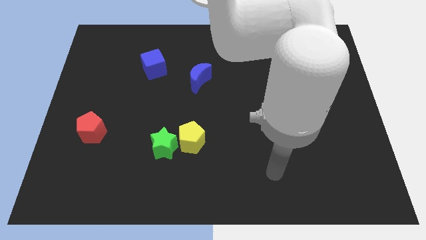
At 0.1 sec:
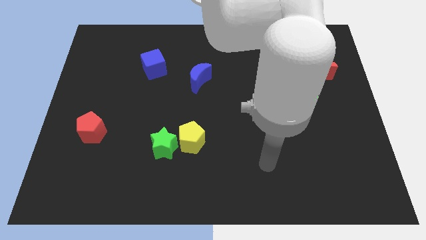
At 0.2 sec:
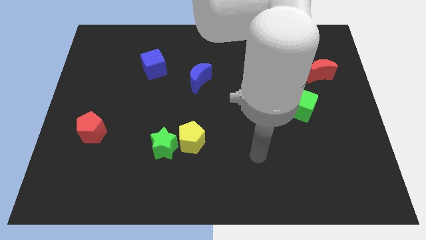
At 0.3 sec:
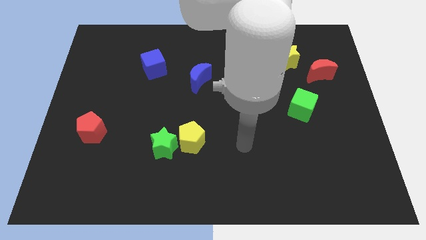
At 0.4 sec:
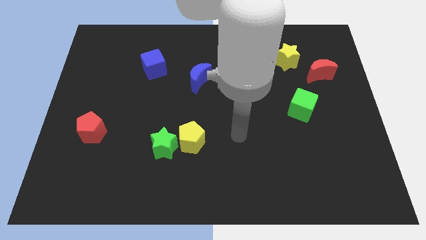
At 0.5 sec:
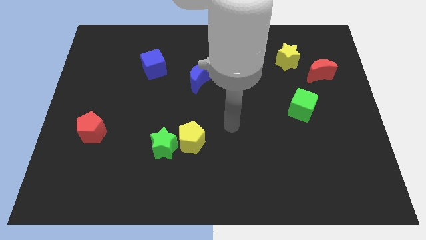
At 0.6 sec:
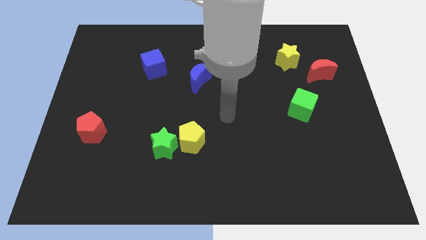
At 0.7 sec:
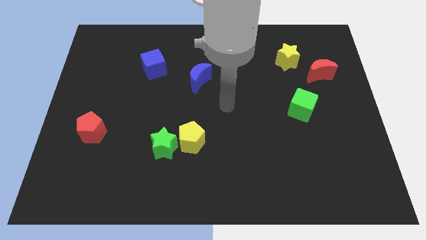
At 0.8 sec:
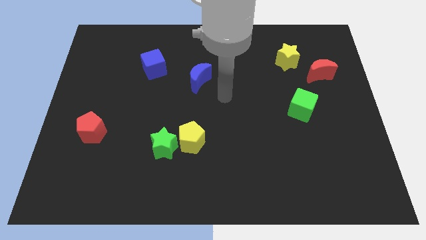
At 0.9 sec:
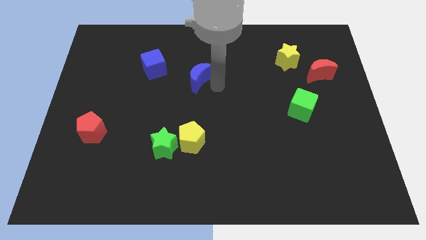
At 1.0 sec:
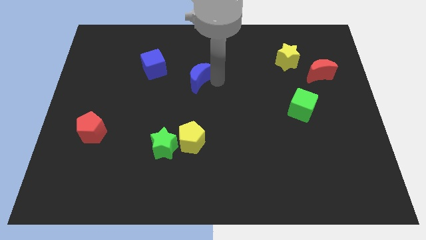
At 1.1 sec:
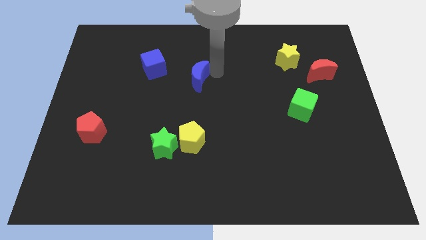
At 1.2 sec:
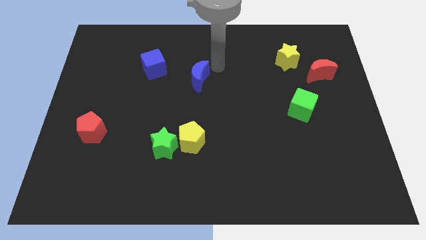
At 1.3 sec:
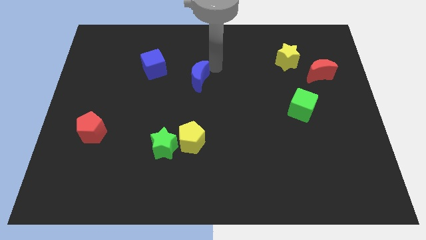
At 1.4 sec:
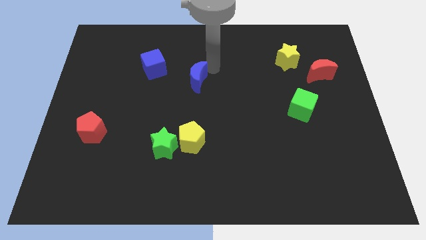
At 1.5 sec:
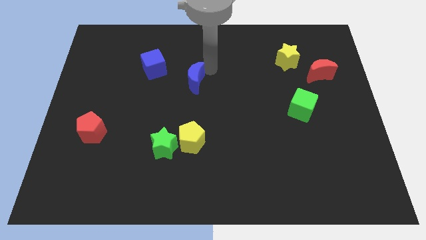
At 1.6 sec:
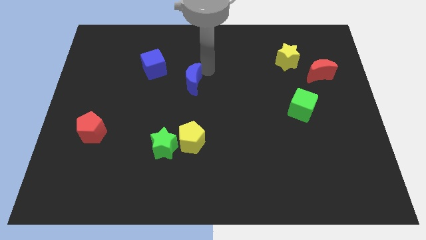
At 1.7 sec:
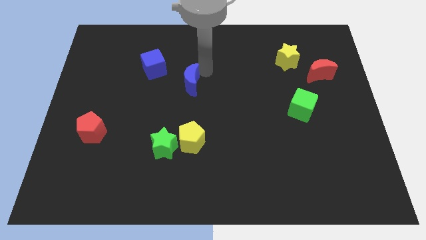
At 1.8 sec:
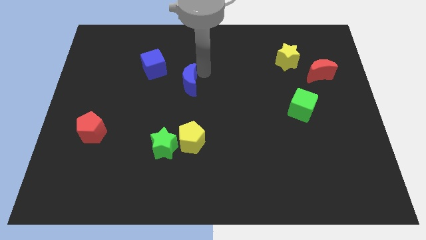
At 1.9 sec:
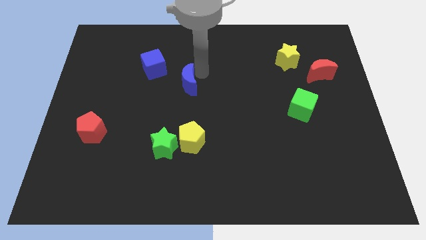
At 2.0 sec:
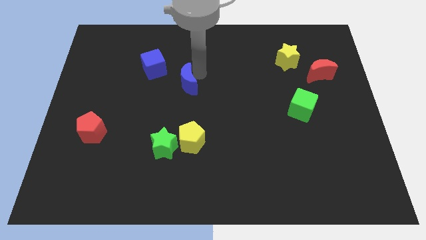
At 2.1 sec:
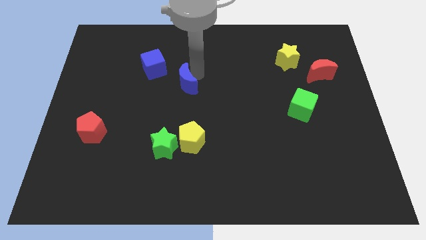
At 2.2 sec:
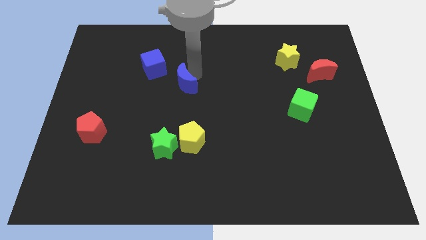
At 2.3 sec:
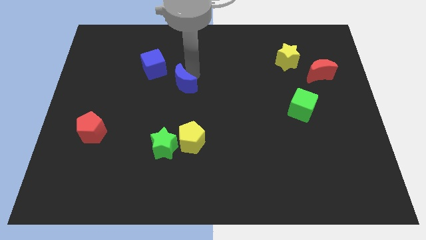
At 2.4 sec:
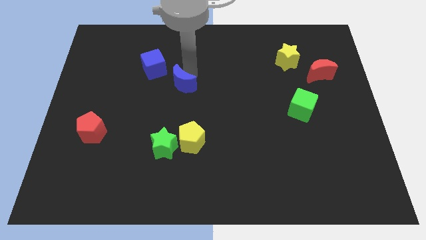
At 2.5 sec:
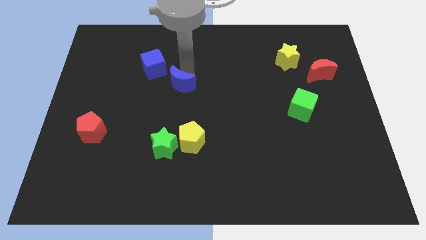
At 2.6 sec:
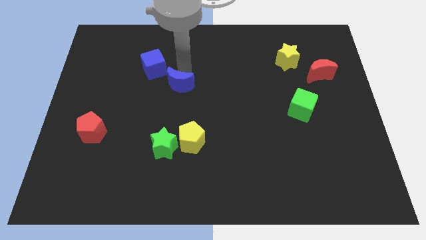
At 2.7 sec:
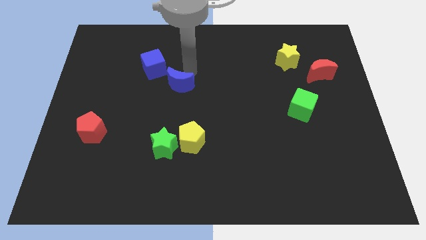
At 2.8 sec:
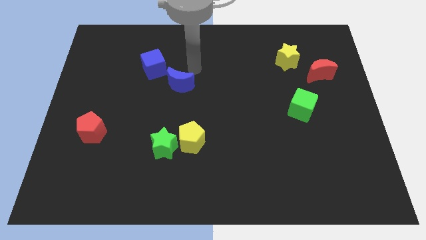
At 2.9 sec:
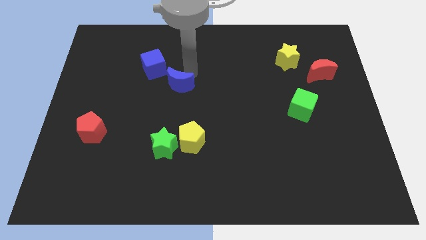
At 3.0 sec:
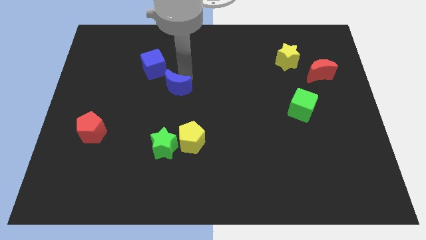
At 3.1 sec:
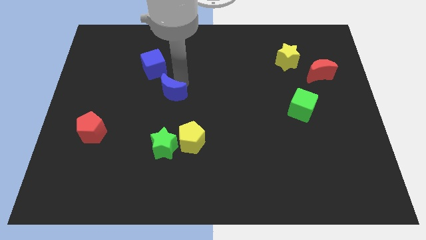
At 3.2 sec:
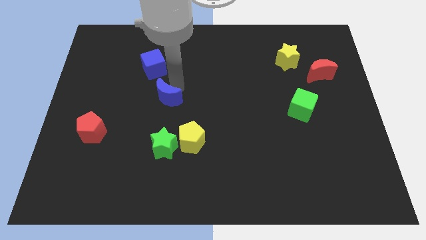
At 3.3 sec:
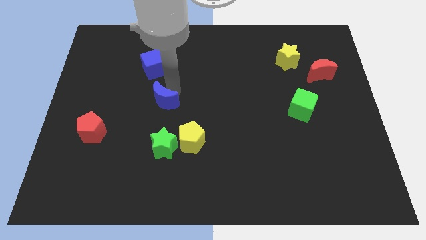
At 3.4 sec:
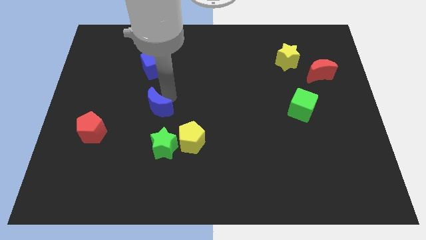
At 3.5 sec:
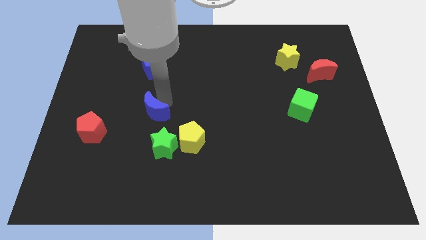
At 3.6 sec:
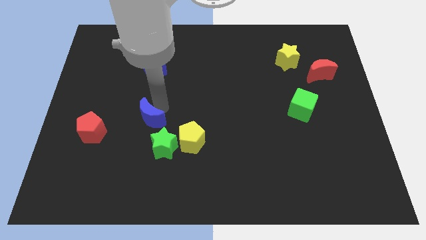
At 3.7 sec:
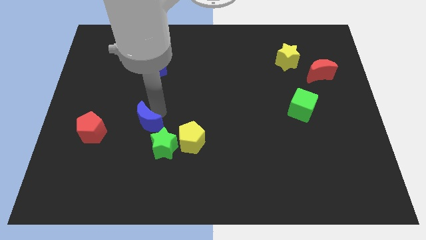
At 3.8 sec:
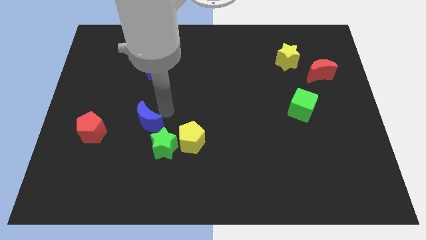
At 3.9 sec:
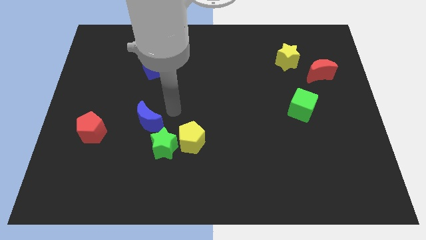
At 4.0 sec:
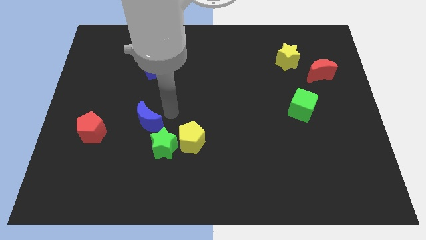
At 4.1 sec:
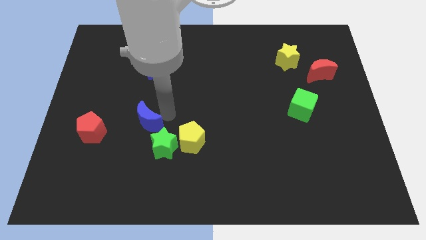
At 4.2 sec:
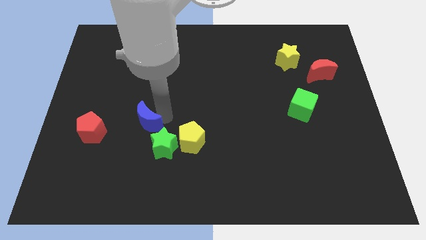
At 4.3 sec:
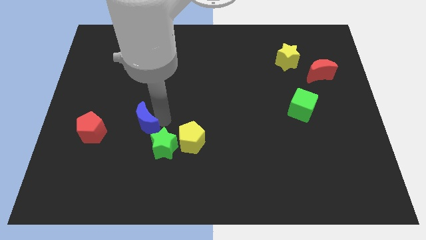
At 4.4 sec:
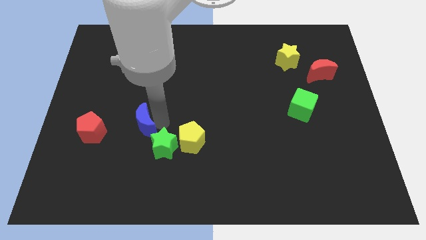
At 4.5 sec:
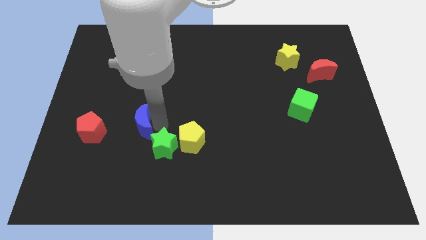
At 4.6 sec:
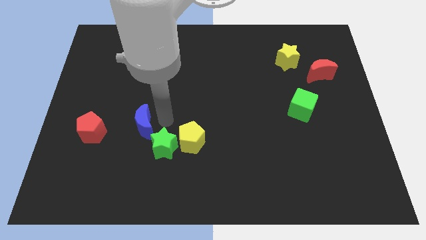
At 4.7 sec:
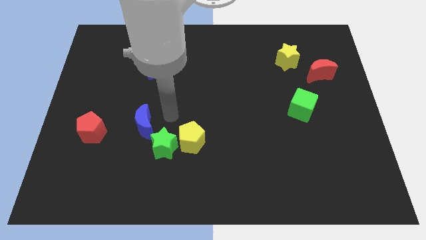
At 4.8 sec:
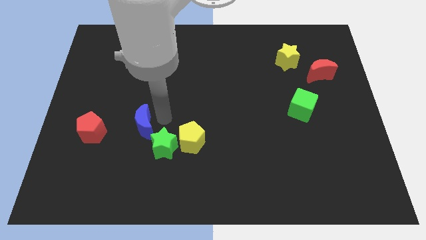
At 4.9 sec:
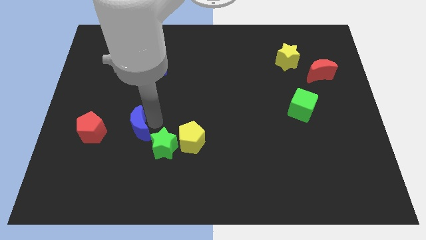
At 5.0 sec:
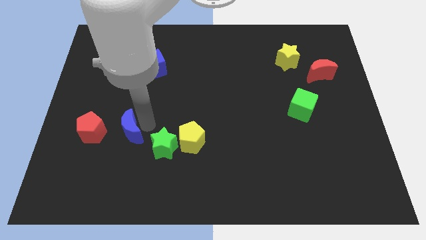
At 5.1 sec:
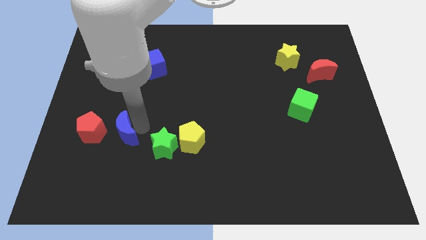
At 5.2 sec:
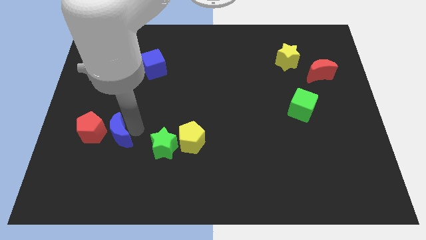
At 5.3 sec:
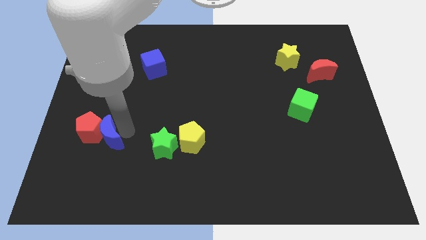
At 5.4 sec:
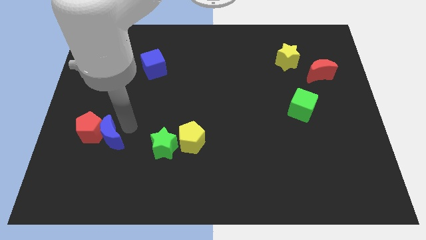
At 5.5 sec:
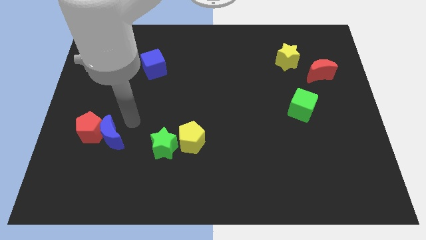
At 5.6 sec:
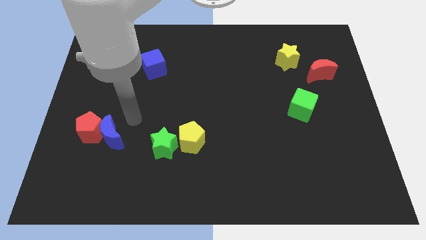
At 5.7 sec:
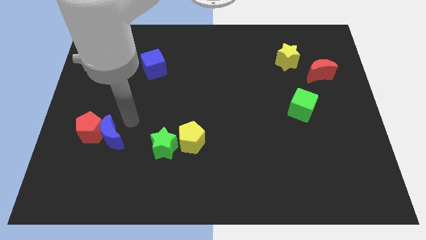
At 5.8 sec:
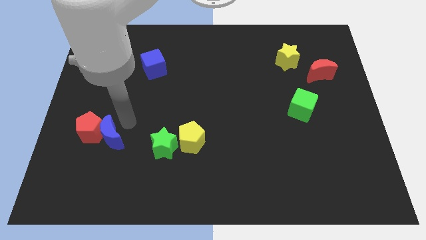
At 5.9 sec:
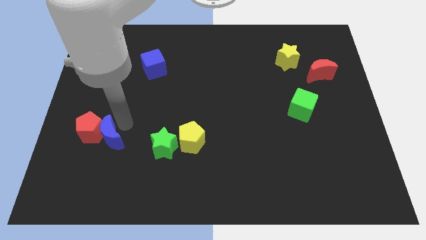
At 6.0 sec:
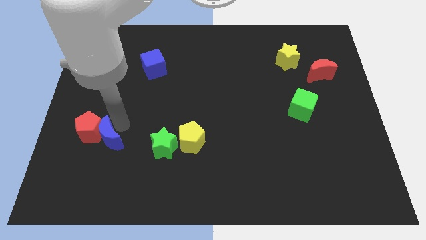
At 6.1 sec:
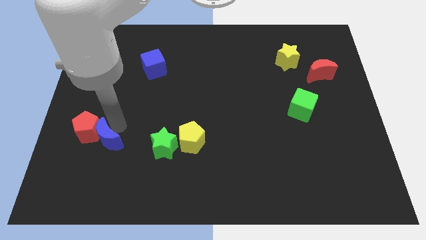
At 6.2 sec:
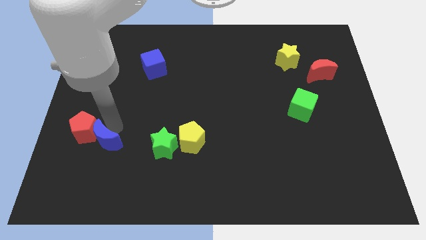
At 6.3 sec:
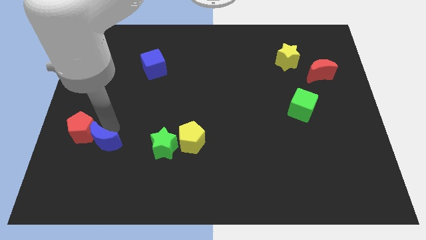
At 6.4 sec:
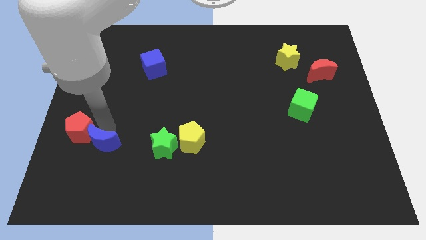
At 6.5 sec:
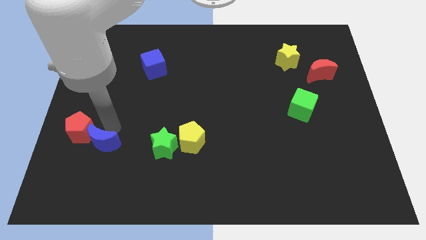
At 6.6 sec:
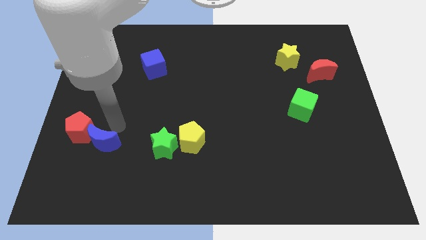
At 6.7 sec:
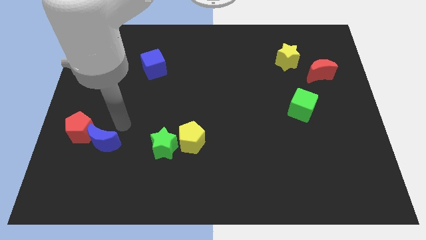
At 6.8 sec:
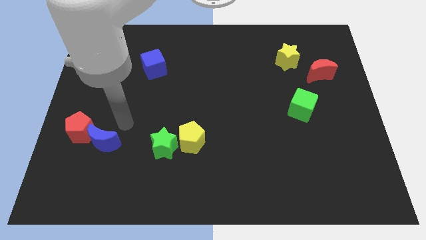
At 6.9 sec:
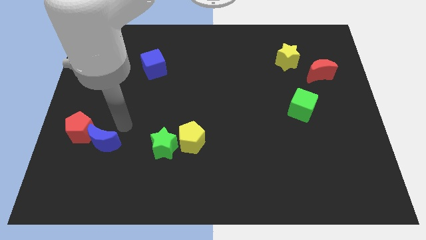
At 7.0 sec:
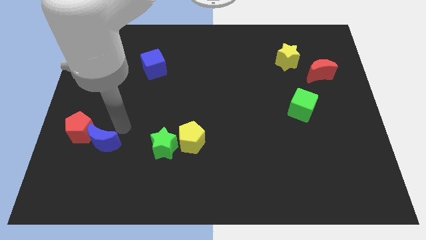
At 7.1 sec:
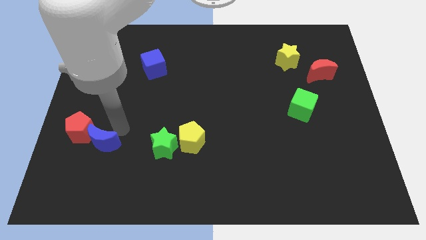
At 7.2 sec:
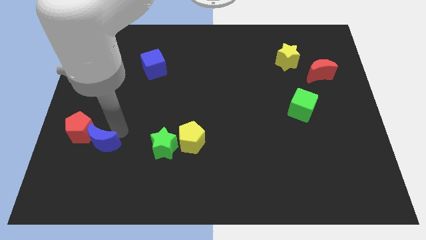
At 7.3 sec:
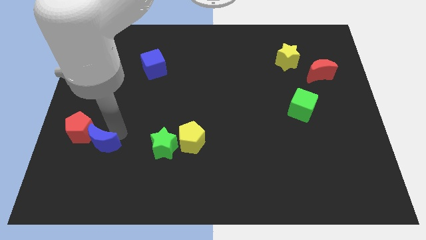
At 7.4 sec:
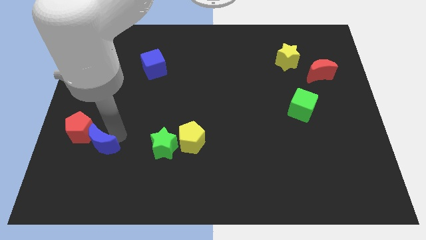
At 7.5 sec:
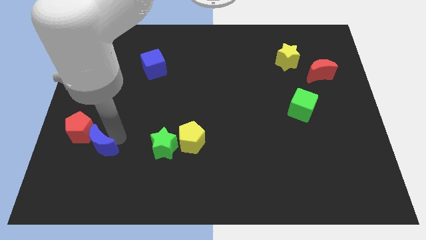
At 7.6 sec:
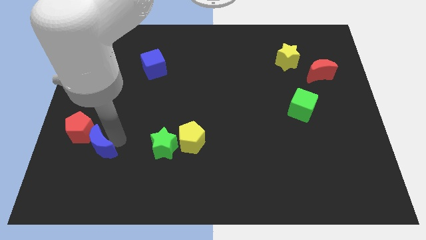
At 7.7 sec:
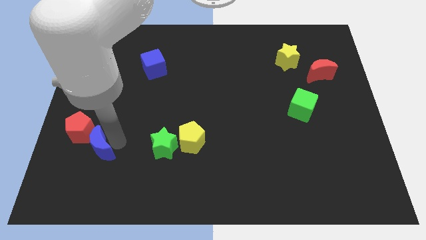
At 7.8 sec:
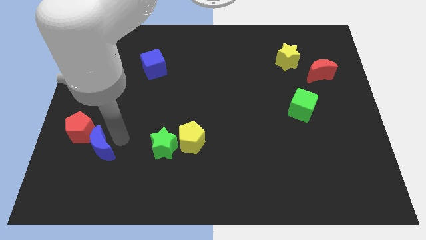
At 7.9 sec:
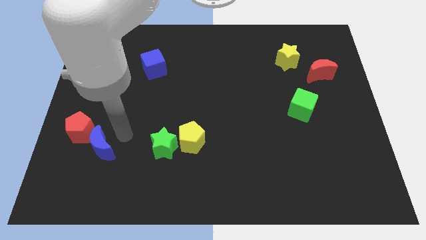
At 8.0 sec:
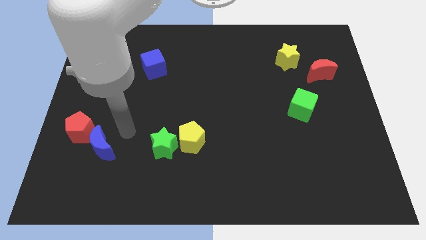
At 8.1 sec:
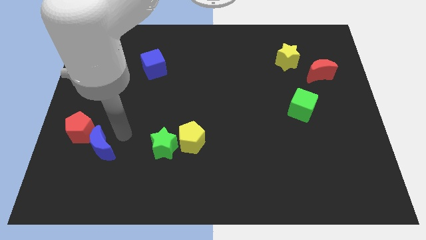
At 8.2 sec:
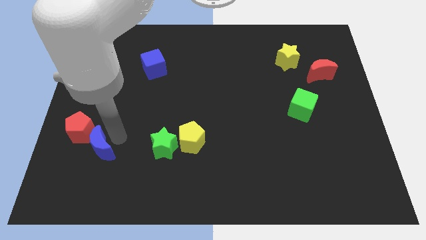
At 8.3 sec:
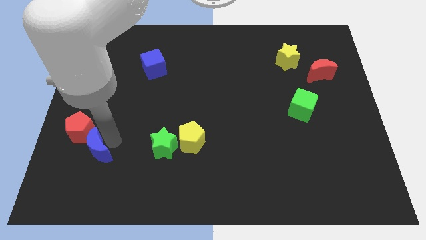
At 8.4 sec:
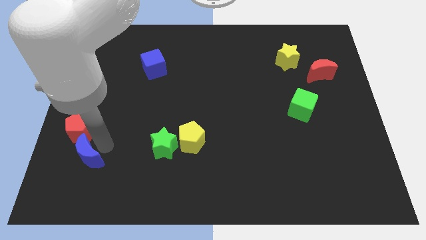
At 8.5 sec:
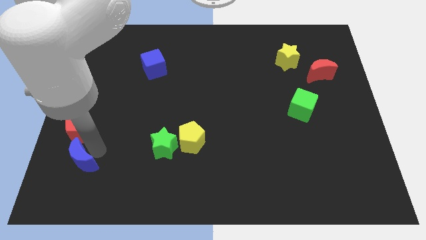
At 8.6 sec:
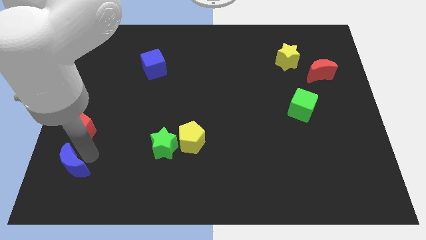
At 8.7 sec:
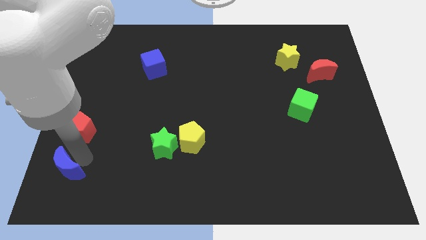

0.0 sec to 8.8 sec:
move the blue moon to the bottom left
